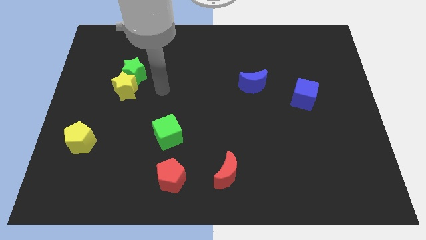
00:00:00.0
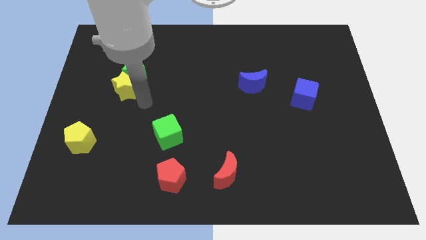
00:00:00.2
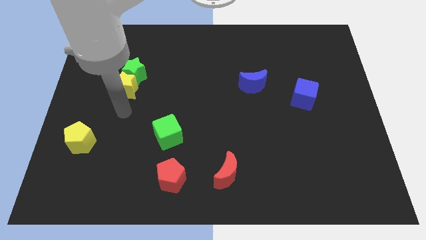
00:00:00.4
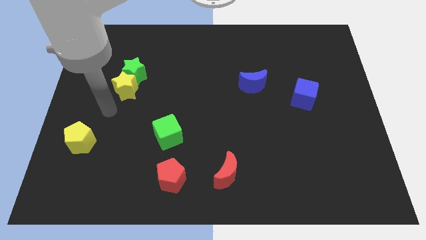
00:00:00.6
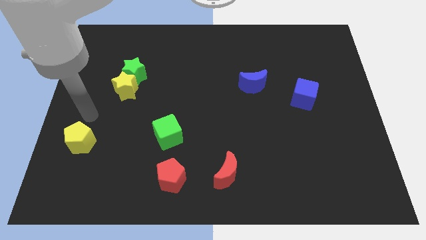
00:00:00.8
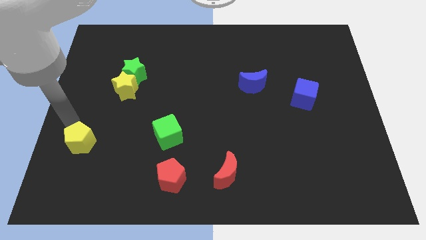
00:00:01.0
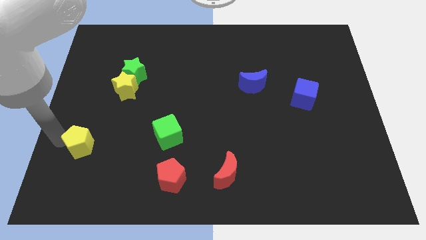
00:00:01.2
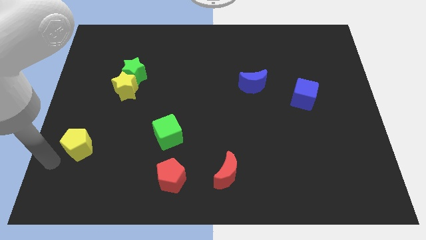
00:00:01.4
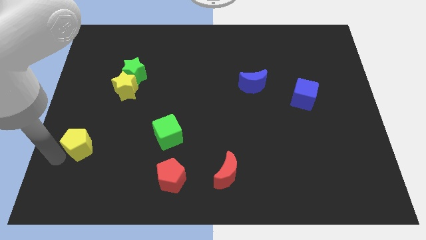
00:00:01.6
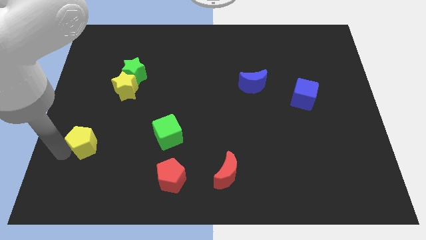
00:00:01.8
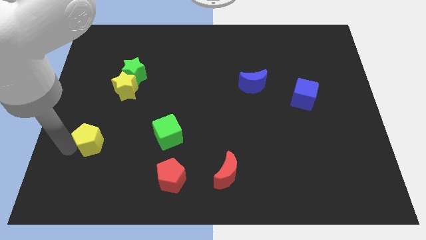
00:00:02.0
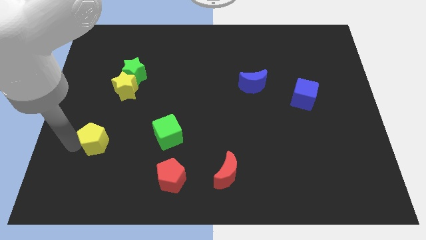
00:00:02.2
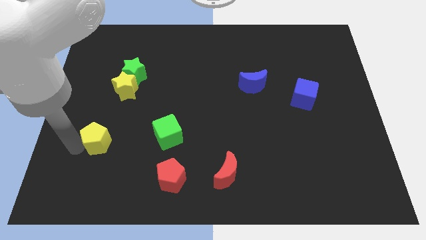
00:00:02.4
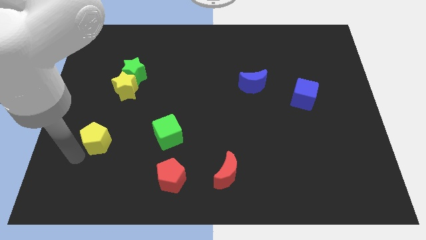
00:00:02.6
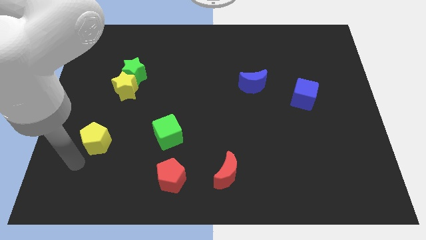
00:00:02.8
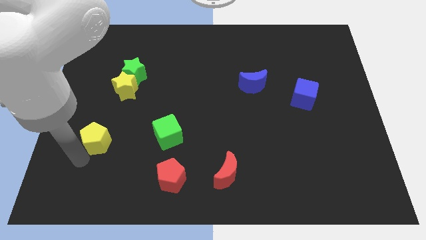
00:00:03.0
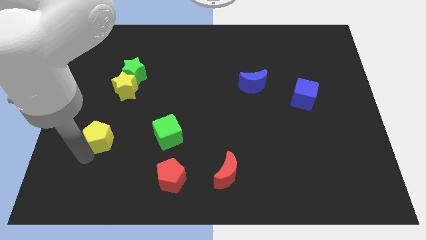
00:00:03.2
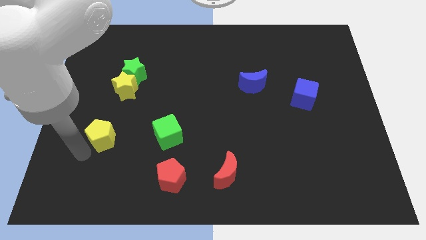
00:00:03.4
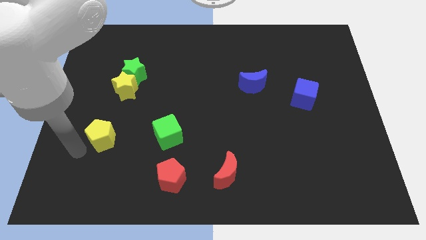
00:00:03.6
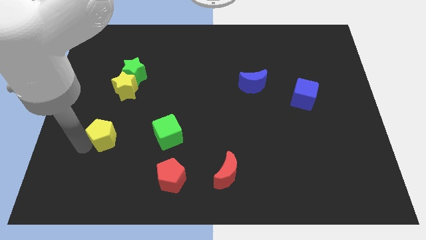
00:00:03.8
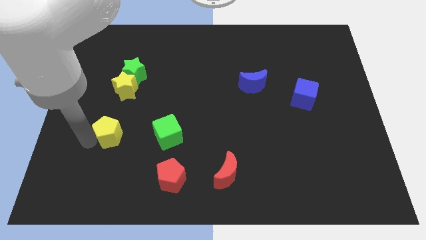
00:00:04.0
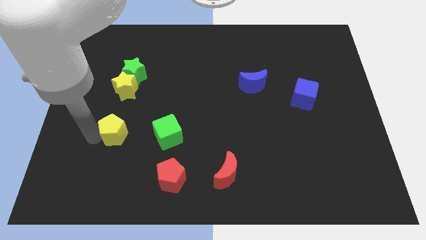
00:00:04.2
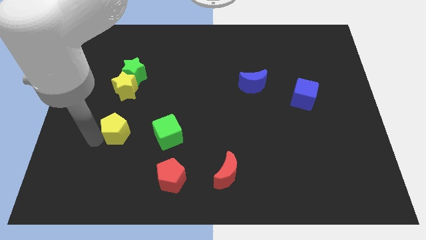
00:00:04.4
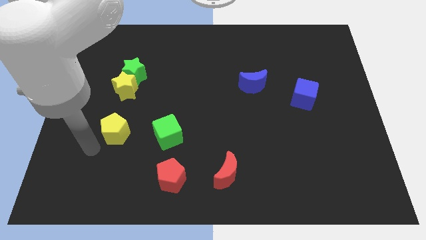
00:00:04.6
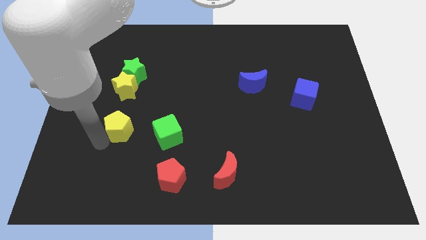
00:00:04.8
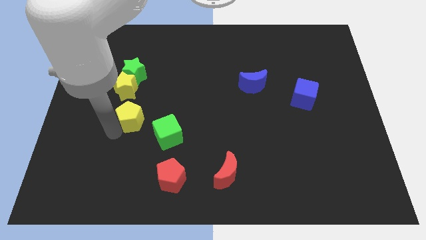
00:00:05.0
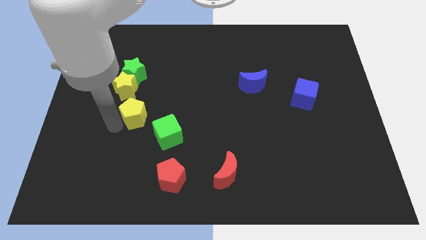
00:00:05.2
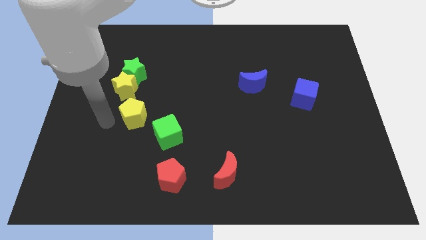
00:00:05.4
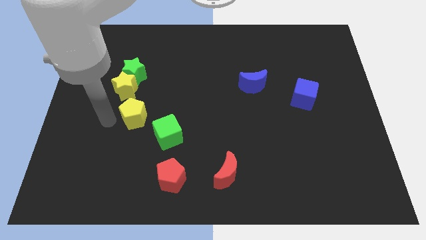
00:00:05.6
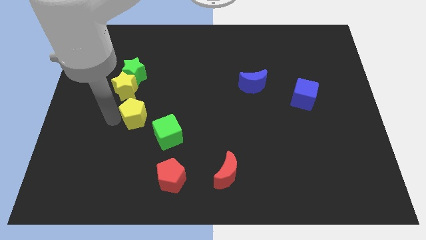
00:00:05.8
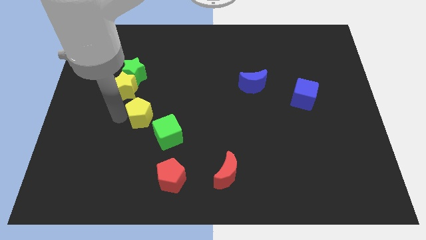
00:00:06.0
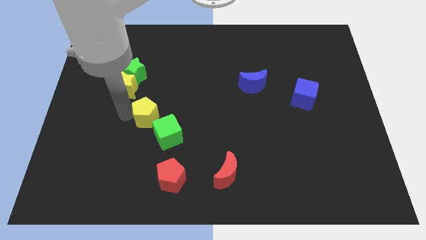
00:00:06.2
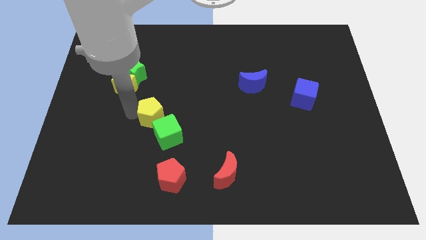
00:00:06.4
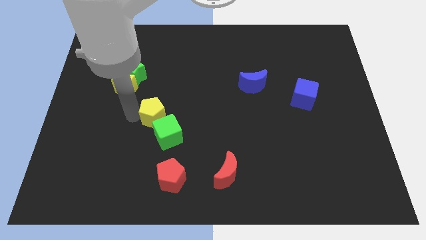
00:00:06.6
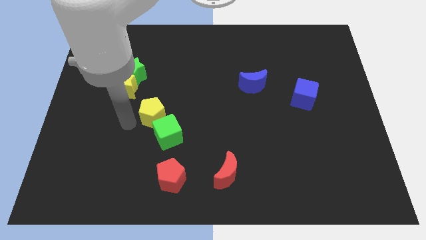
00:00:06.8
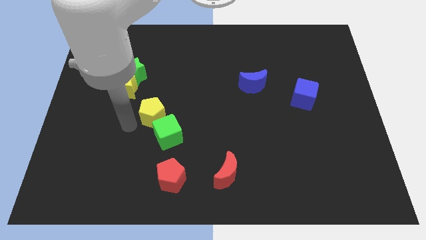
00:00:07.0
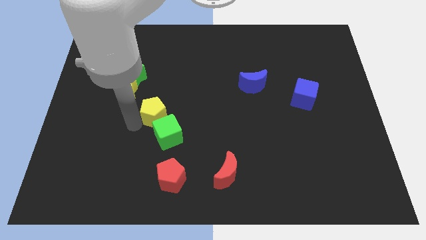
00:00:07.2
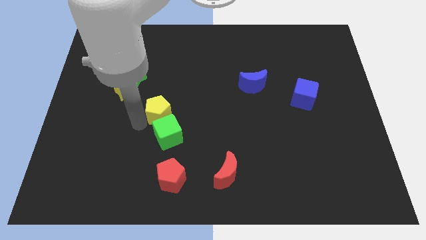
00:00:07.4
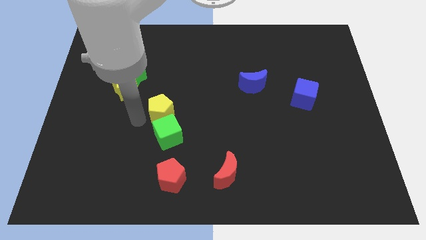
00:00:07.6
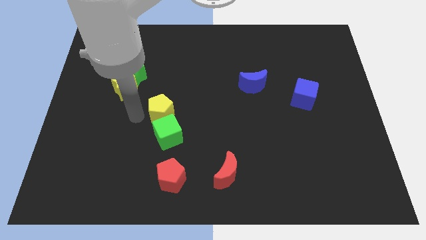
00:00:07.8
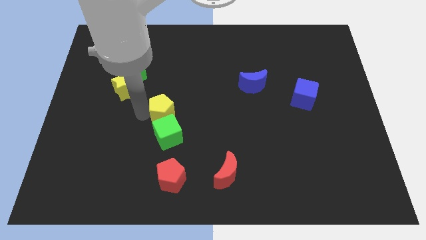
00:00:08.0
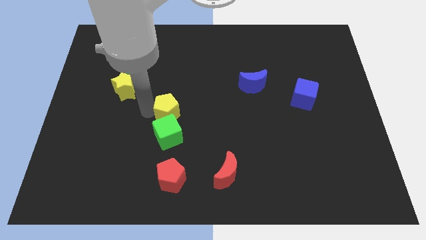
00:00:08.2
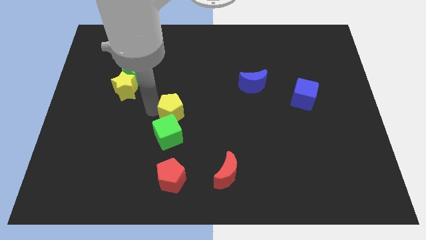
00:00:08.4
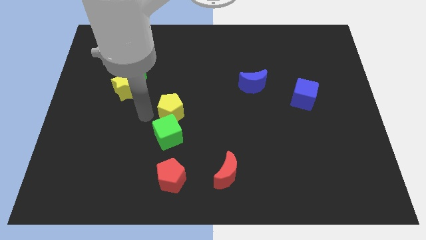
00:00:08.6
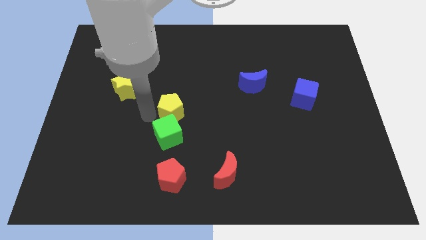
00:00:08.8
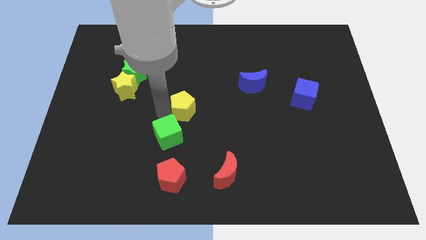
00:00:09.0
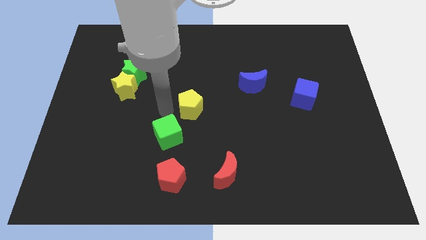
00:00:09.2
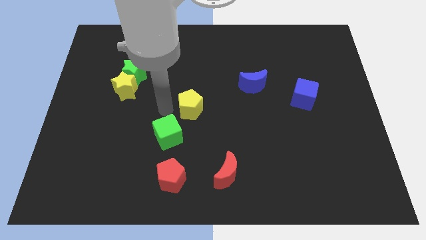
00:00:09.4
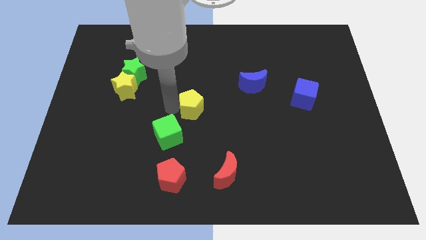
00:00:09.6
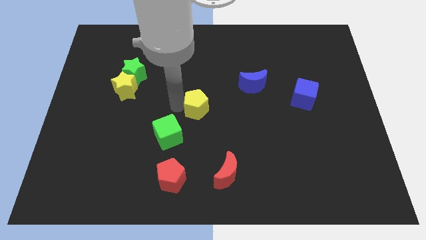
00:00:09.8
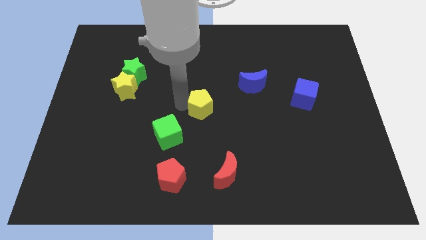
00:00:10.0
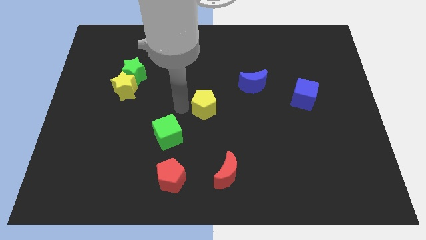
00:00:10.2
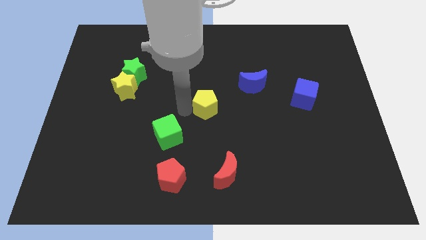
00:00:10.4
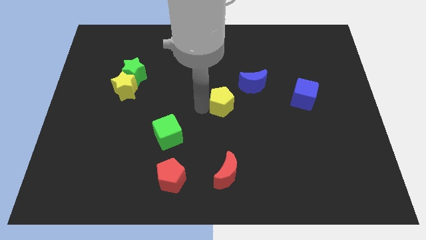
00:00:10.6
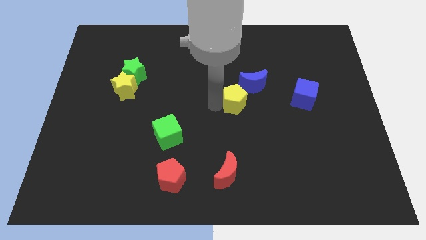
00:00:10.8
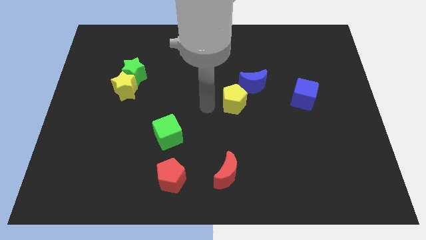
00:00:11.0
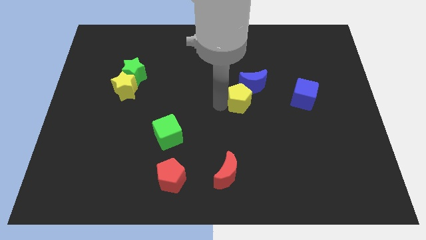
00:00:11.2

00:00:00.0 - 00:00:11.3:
put the yellow pentagon left of the blue cube

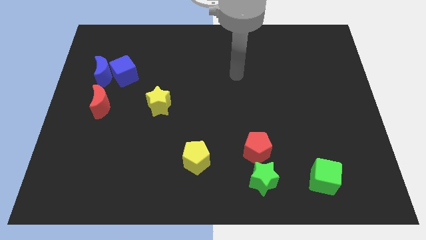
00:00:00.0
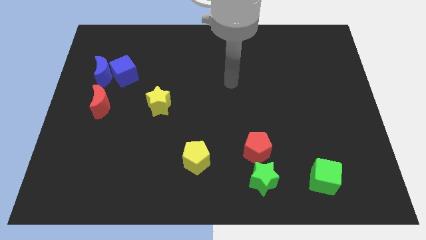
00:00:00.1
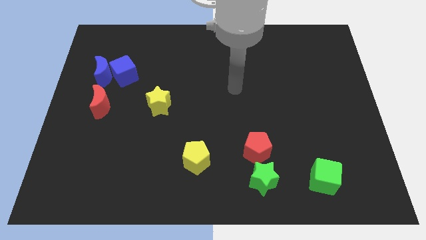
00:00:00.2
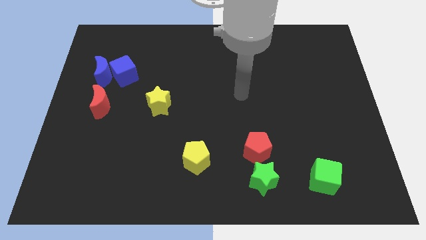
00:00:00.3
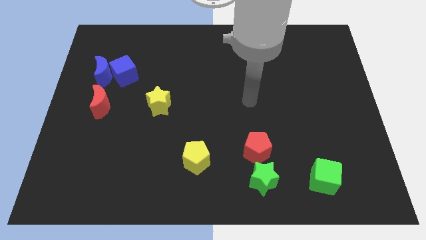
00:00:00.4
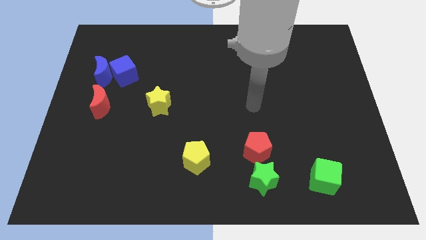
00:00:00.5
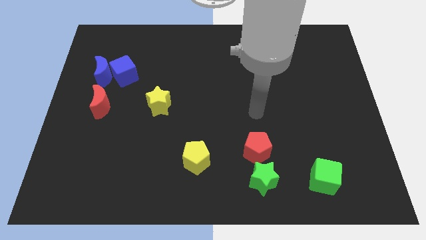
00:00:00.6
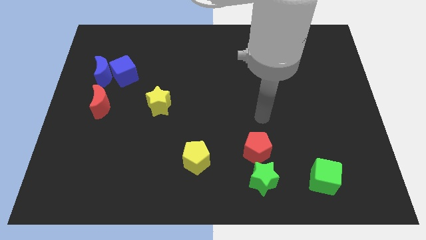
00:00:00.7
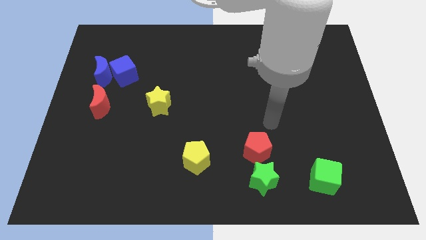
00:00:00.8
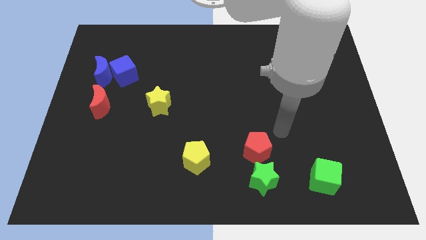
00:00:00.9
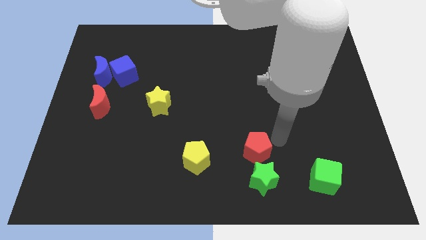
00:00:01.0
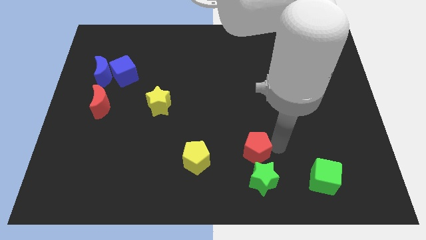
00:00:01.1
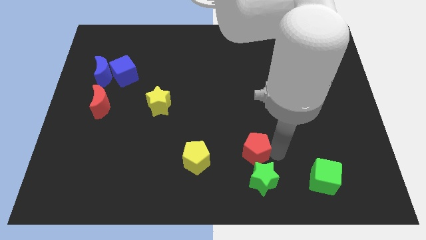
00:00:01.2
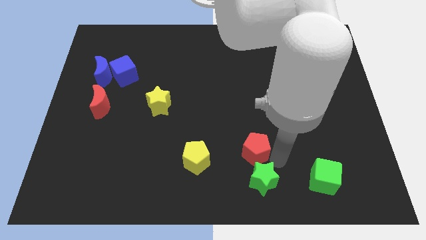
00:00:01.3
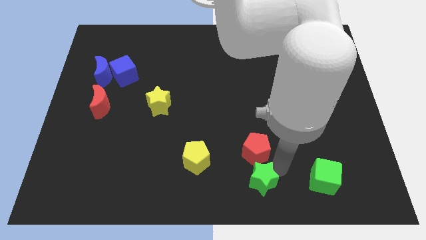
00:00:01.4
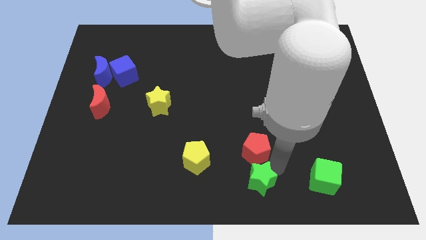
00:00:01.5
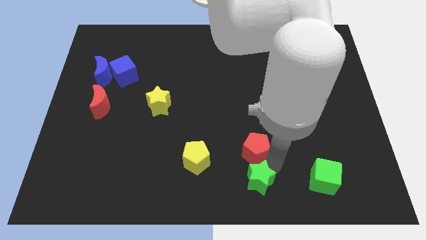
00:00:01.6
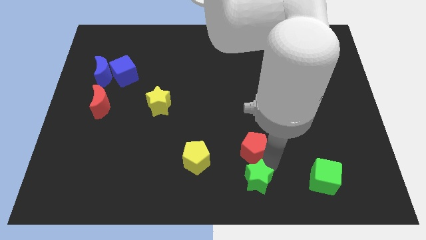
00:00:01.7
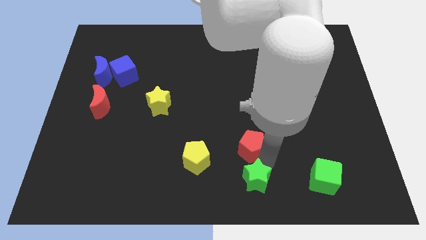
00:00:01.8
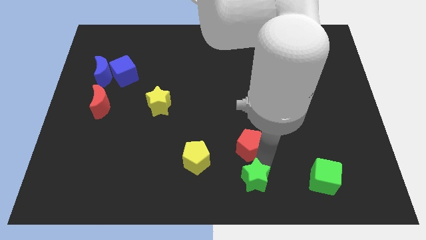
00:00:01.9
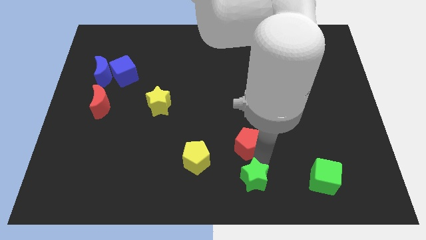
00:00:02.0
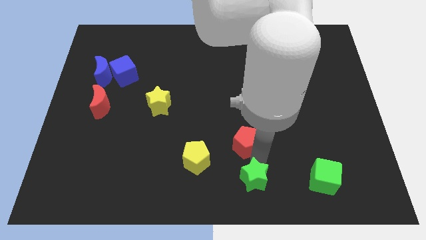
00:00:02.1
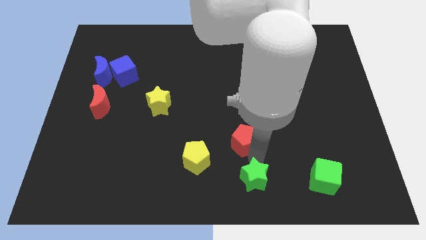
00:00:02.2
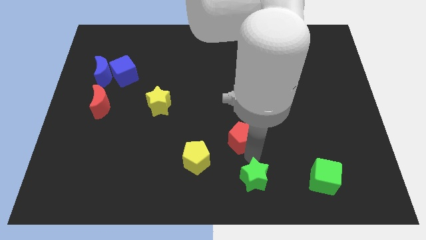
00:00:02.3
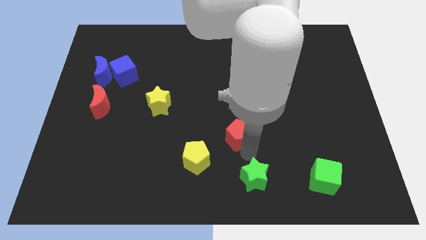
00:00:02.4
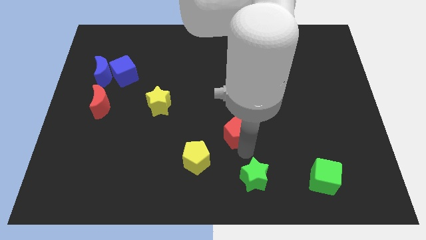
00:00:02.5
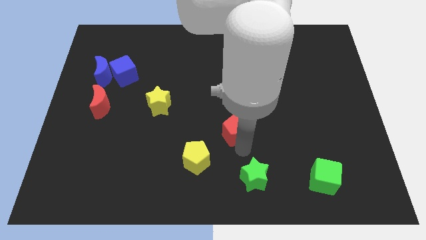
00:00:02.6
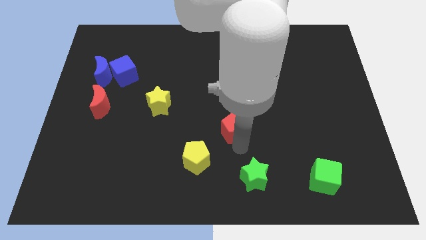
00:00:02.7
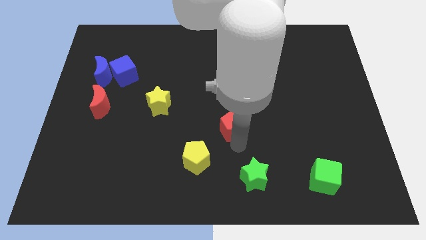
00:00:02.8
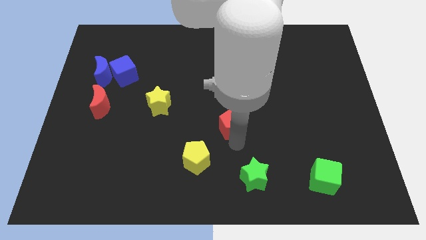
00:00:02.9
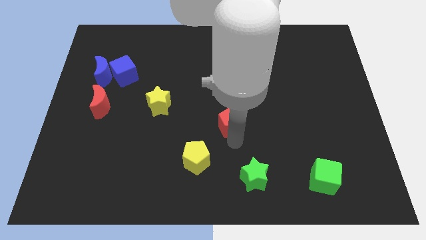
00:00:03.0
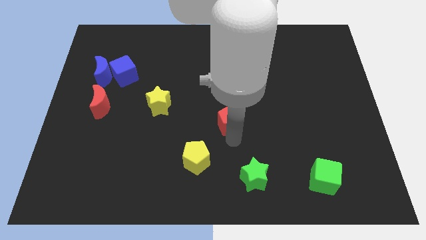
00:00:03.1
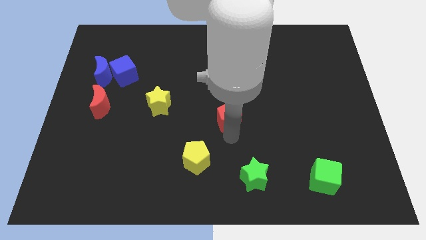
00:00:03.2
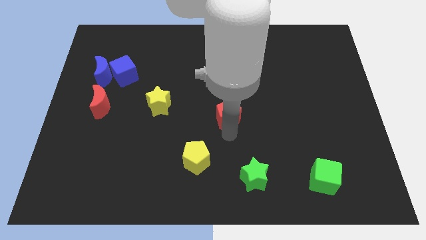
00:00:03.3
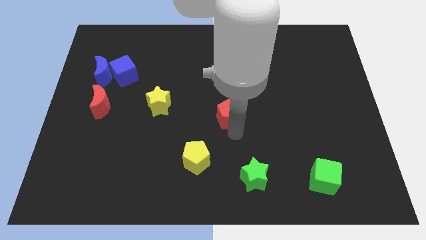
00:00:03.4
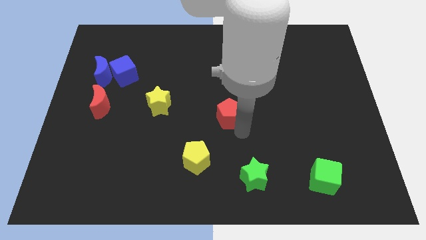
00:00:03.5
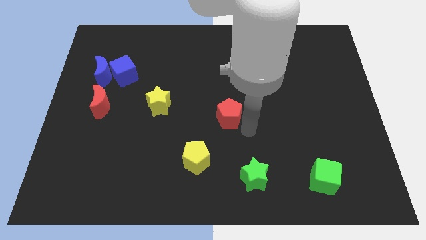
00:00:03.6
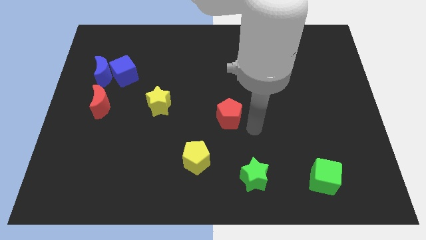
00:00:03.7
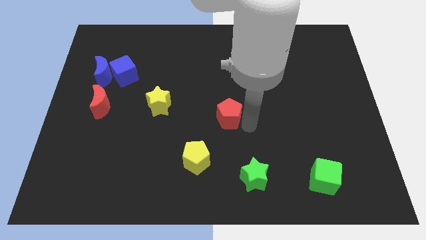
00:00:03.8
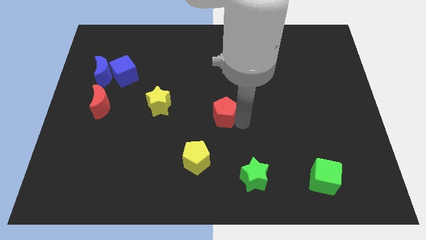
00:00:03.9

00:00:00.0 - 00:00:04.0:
put the red pentagon just right of the yellow star
